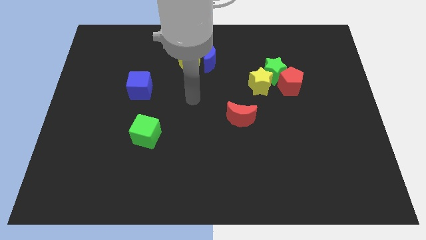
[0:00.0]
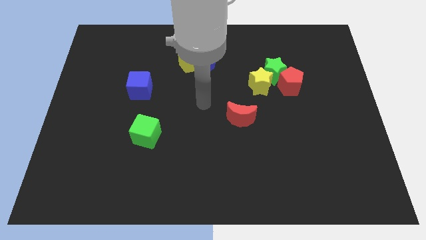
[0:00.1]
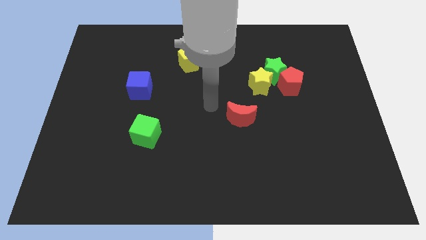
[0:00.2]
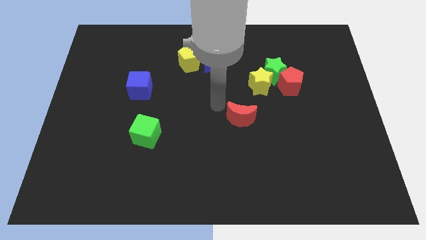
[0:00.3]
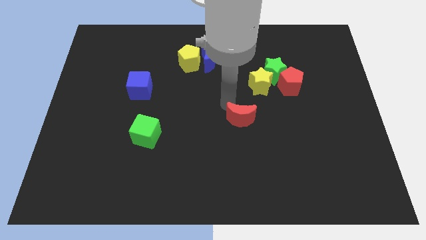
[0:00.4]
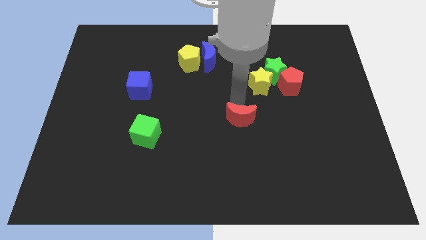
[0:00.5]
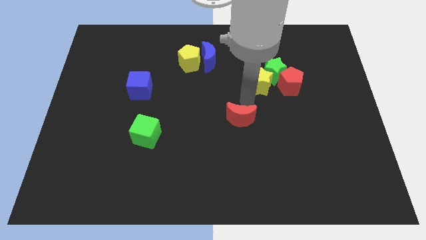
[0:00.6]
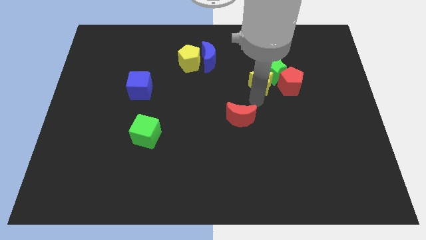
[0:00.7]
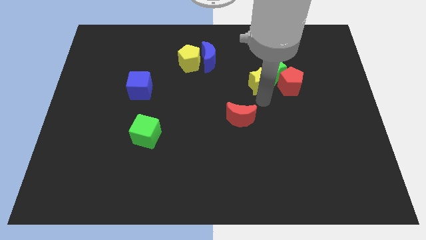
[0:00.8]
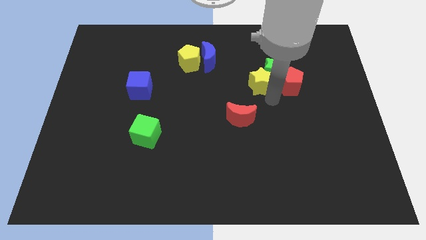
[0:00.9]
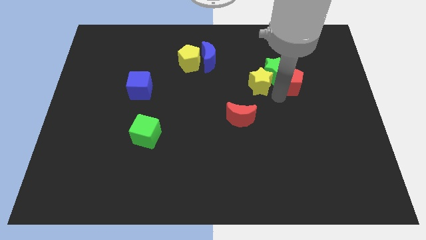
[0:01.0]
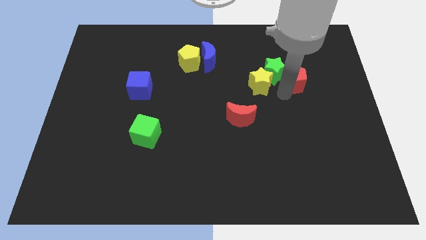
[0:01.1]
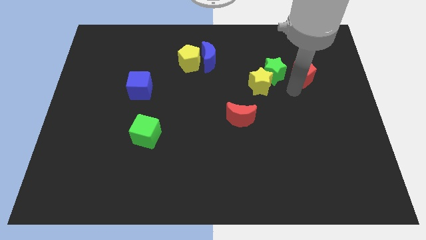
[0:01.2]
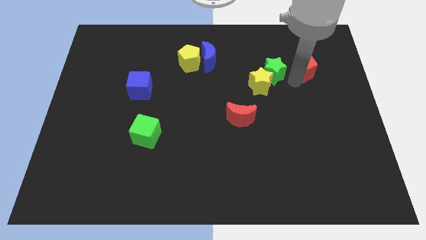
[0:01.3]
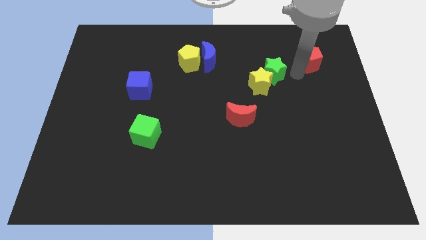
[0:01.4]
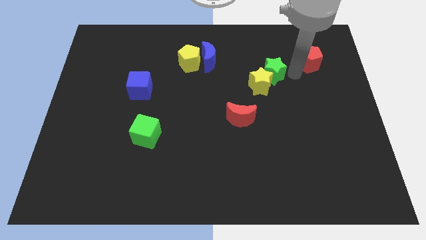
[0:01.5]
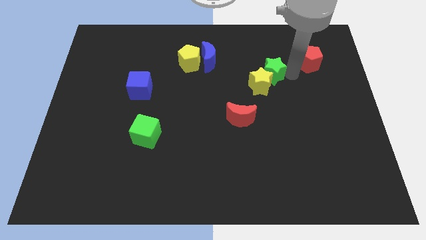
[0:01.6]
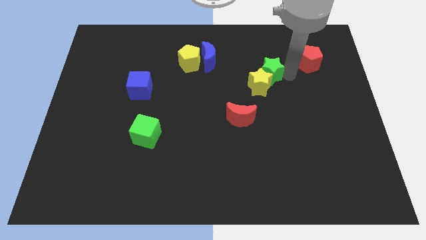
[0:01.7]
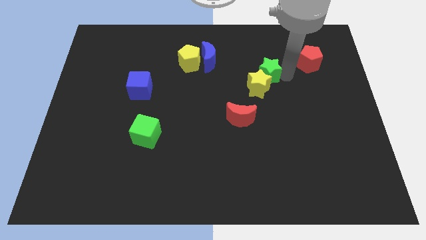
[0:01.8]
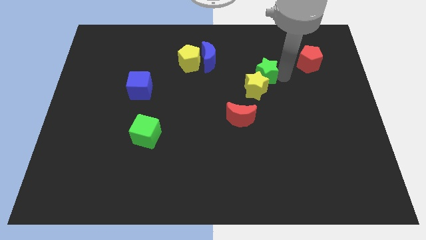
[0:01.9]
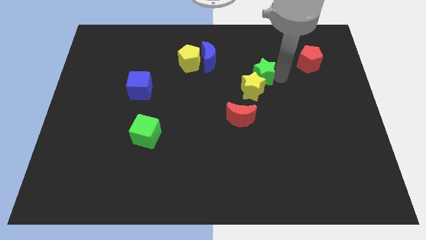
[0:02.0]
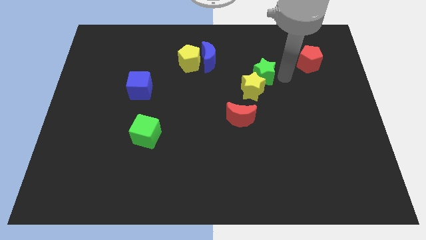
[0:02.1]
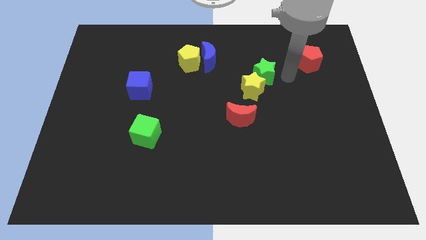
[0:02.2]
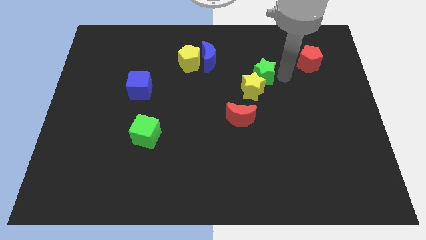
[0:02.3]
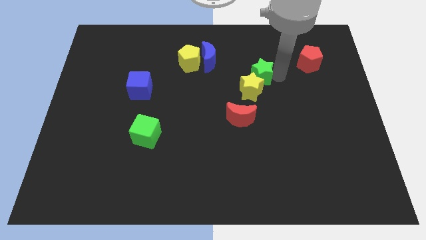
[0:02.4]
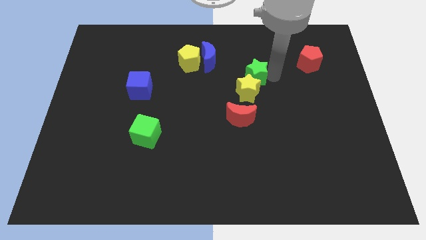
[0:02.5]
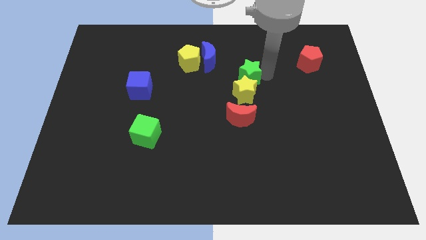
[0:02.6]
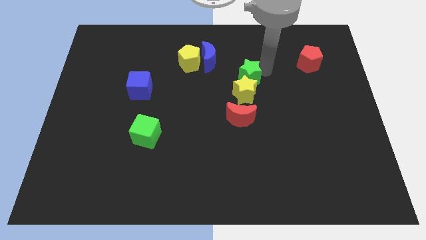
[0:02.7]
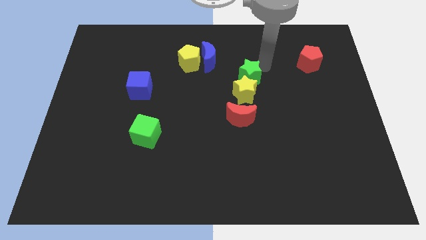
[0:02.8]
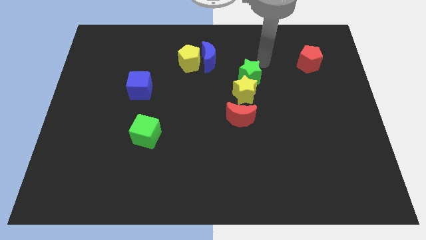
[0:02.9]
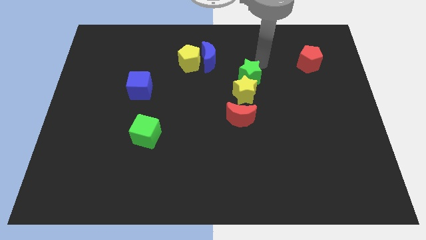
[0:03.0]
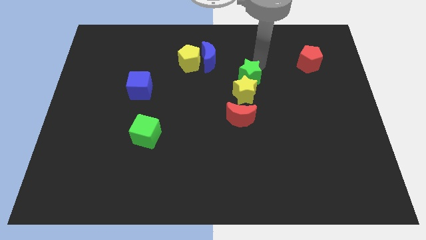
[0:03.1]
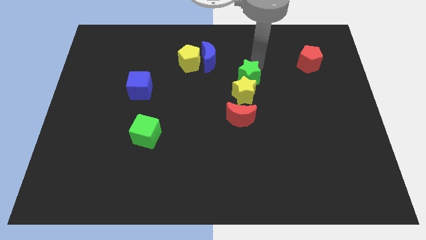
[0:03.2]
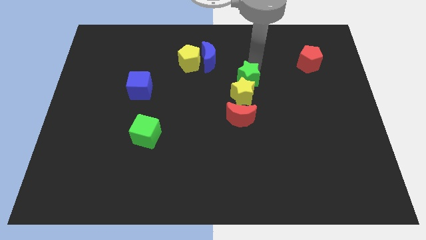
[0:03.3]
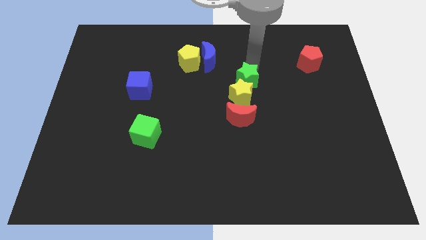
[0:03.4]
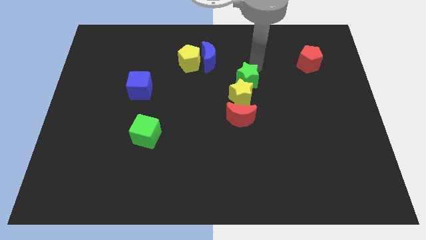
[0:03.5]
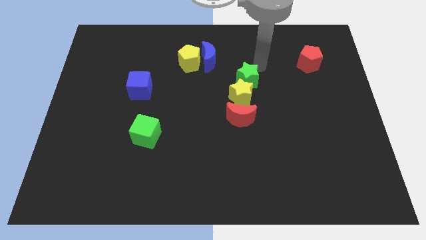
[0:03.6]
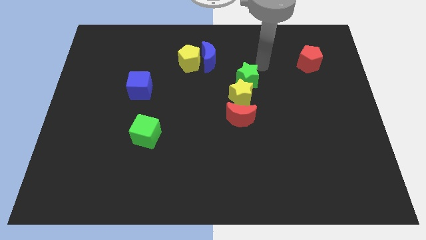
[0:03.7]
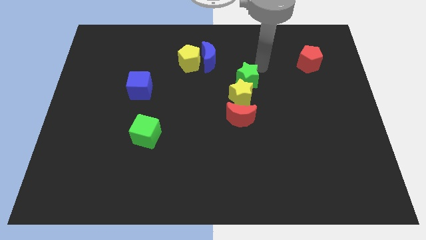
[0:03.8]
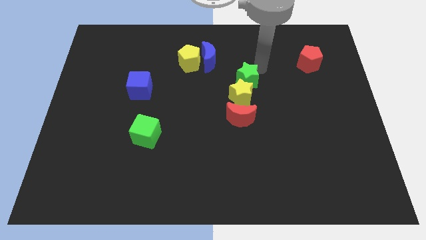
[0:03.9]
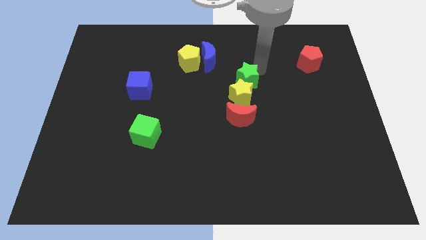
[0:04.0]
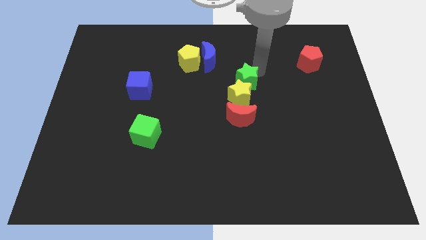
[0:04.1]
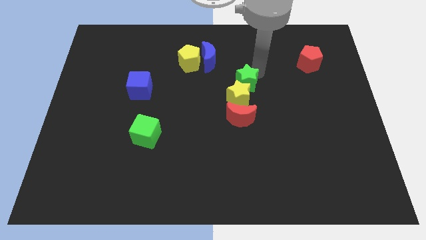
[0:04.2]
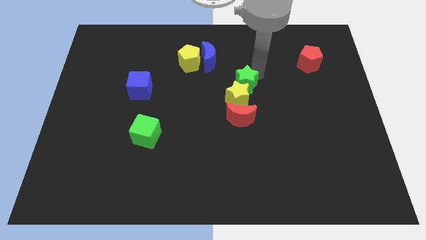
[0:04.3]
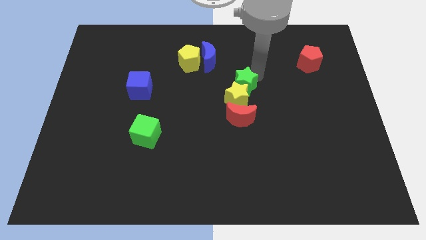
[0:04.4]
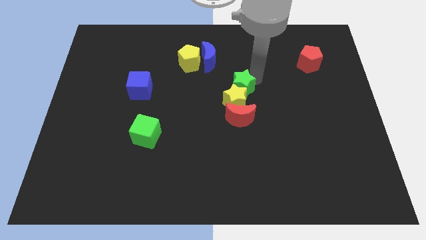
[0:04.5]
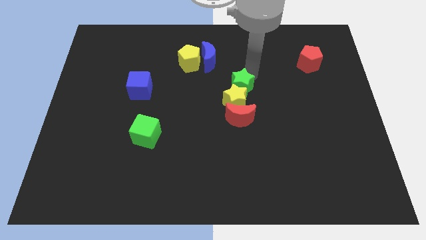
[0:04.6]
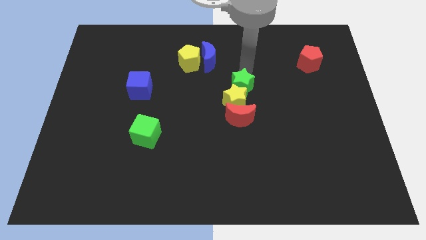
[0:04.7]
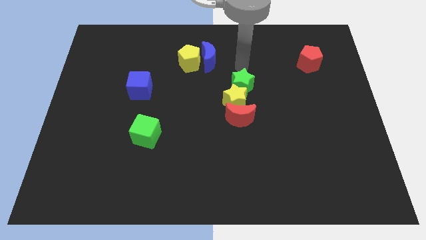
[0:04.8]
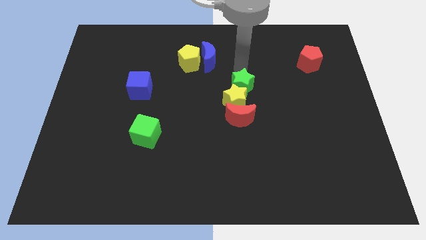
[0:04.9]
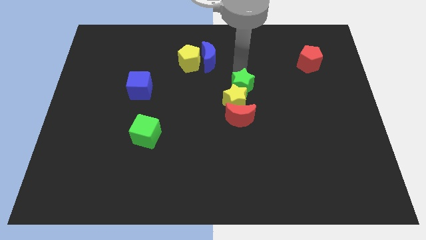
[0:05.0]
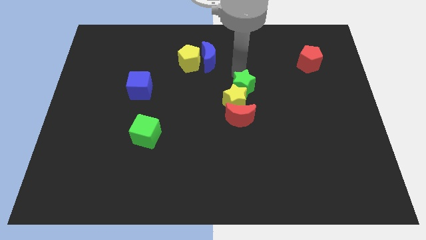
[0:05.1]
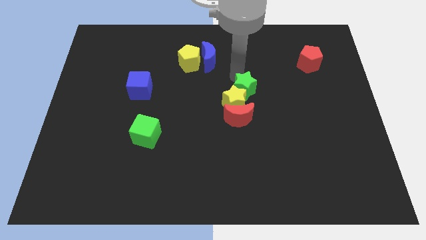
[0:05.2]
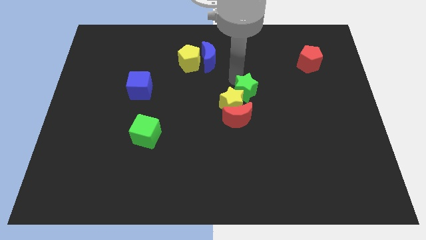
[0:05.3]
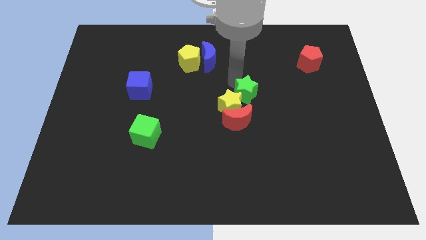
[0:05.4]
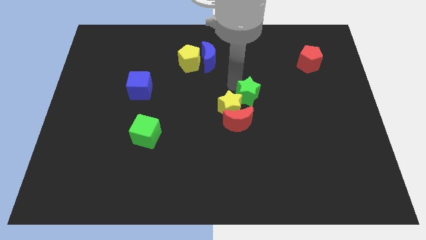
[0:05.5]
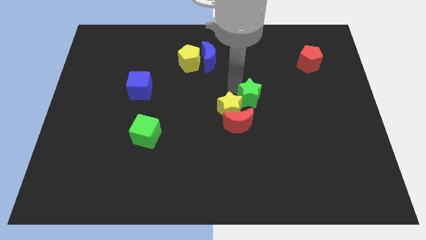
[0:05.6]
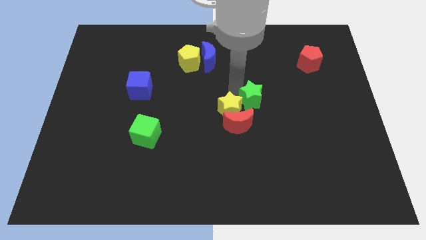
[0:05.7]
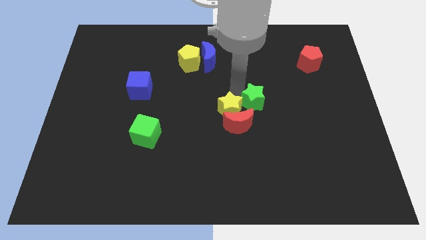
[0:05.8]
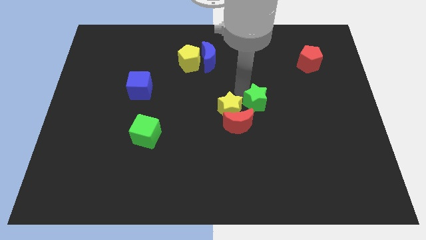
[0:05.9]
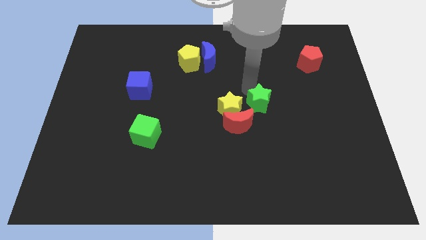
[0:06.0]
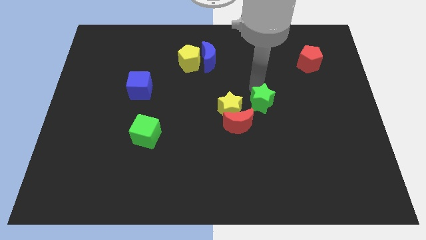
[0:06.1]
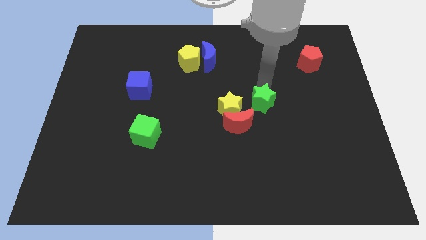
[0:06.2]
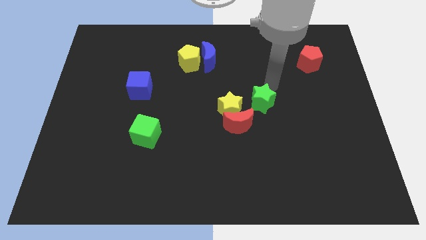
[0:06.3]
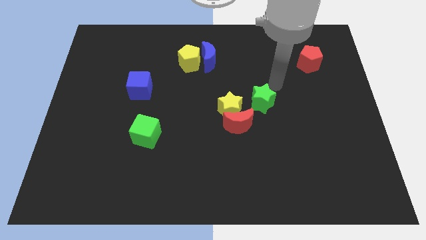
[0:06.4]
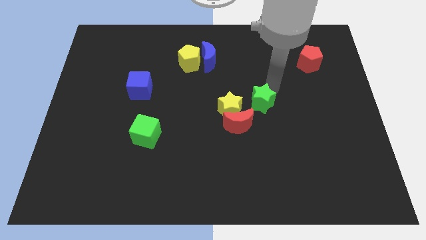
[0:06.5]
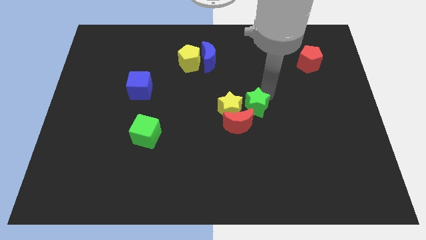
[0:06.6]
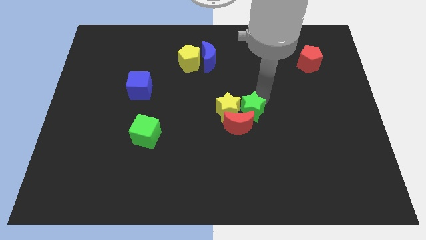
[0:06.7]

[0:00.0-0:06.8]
push the green star to the red moon

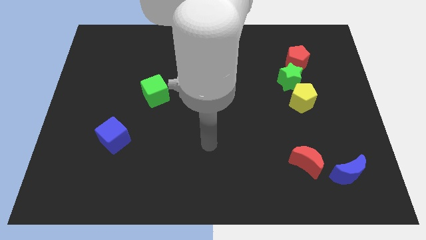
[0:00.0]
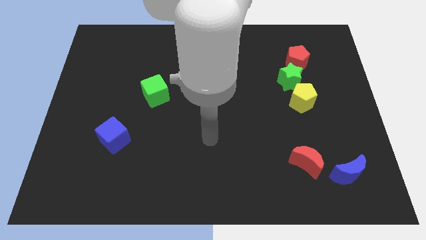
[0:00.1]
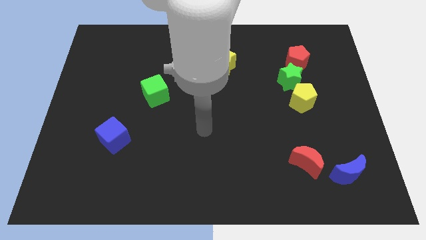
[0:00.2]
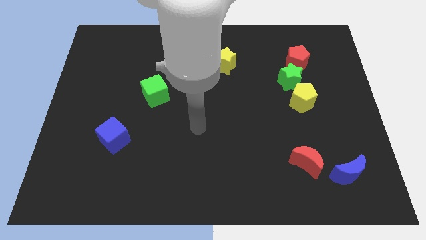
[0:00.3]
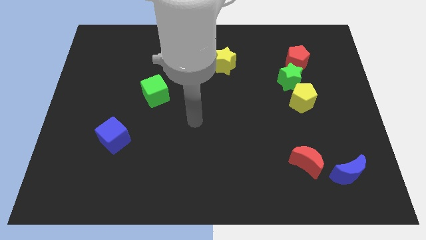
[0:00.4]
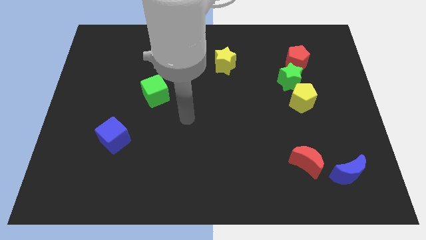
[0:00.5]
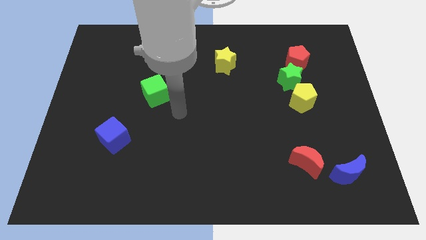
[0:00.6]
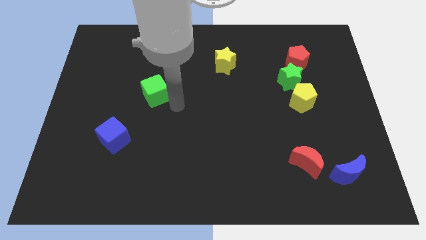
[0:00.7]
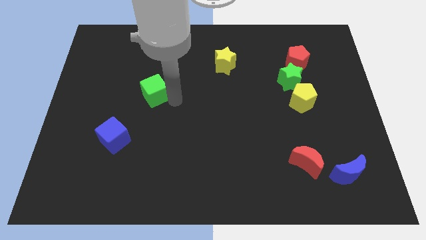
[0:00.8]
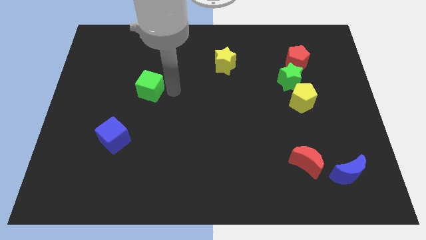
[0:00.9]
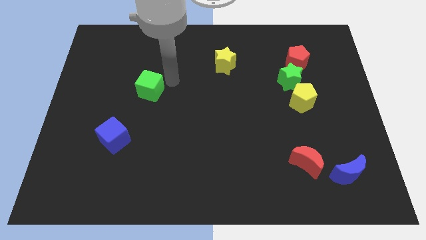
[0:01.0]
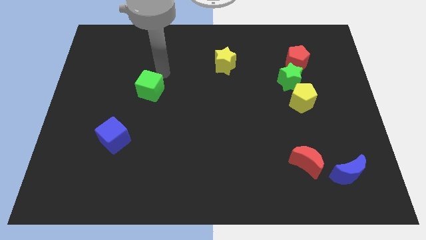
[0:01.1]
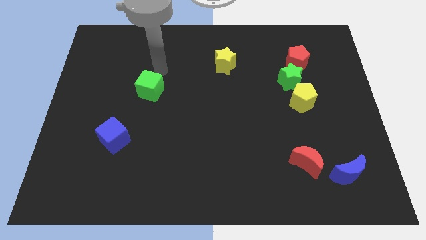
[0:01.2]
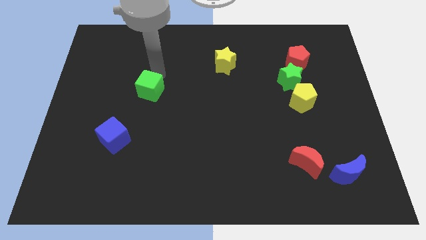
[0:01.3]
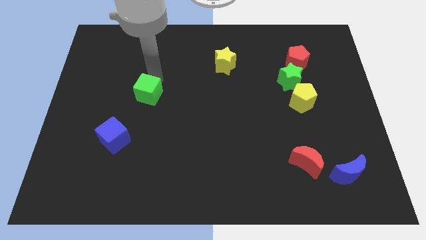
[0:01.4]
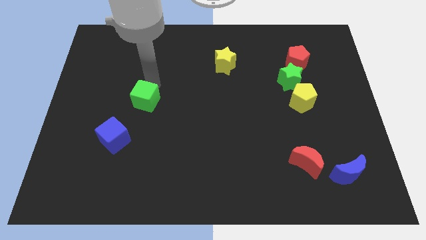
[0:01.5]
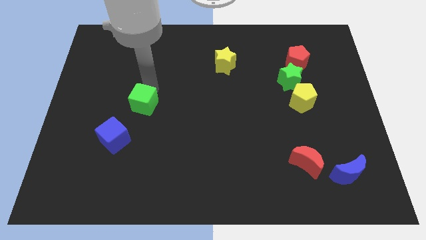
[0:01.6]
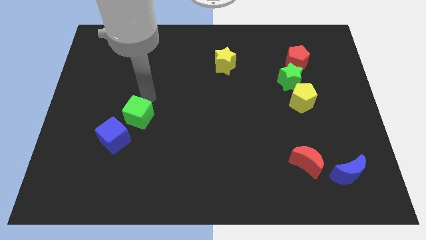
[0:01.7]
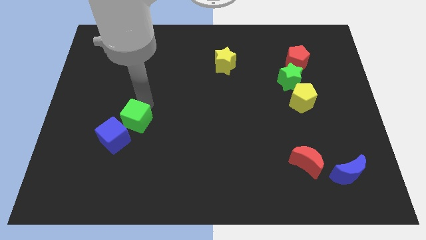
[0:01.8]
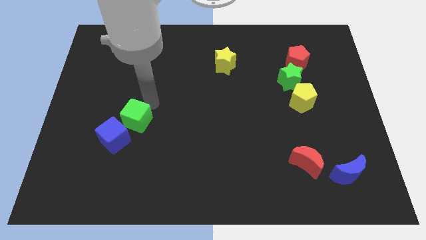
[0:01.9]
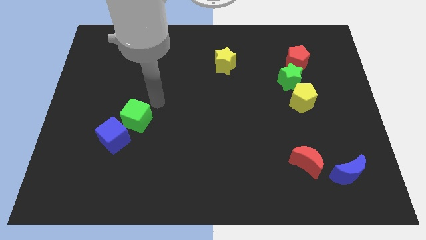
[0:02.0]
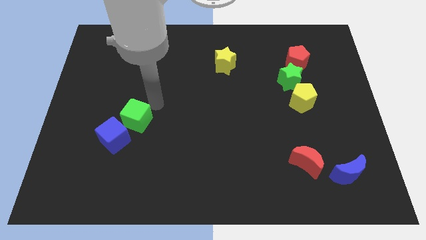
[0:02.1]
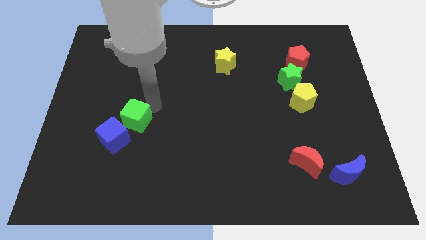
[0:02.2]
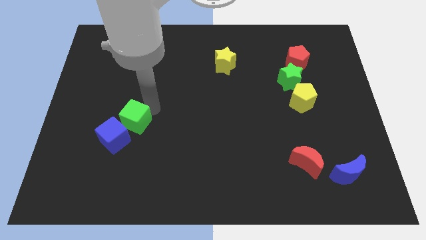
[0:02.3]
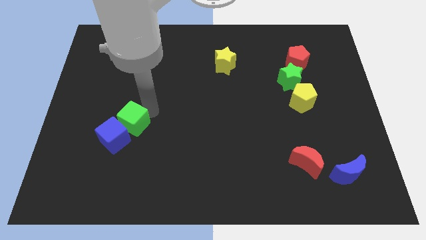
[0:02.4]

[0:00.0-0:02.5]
push the green cube towards the blue cube
